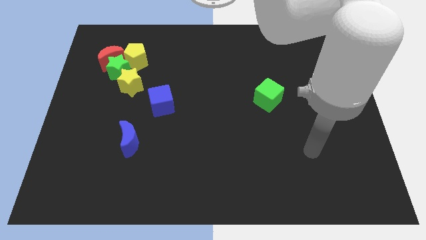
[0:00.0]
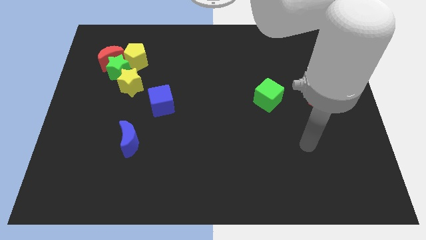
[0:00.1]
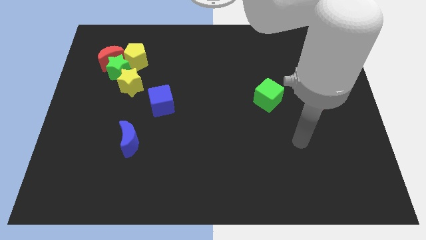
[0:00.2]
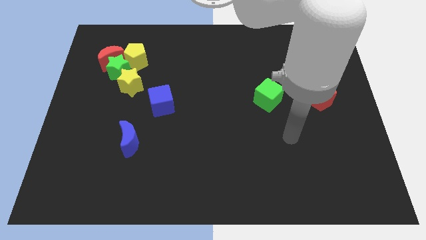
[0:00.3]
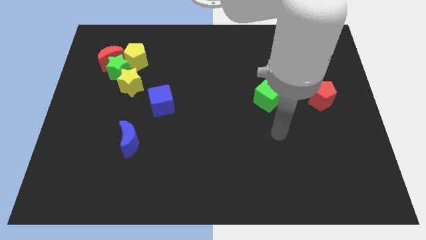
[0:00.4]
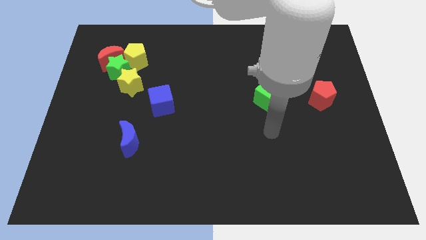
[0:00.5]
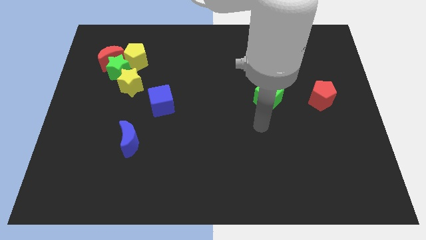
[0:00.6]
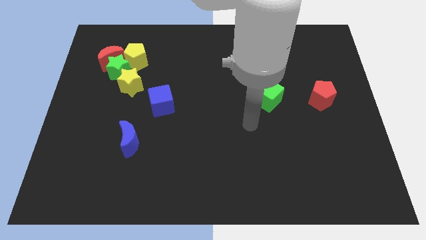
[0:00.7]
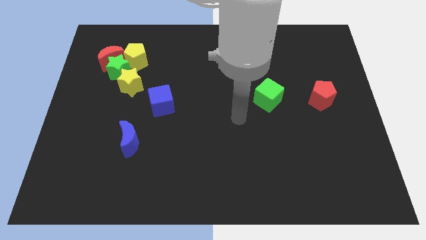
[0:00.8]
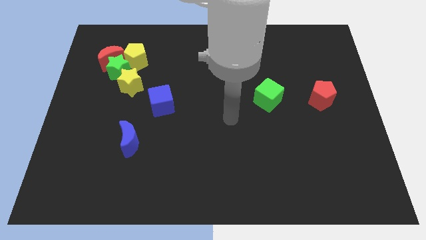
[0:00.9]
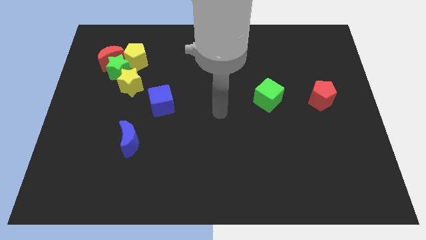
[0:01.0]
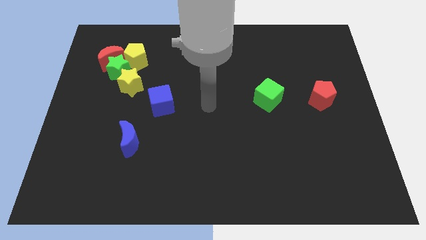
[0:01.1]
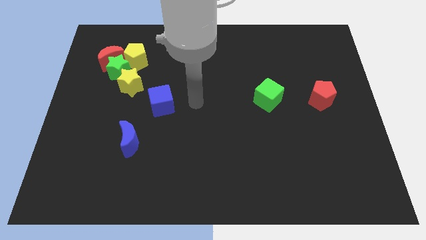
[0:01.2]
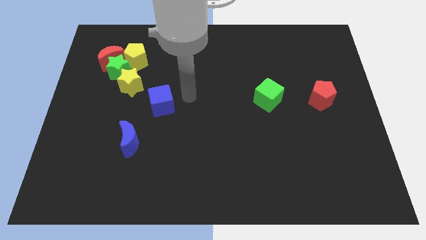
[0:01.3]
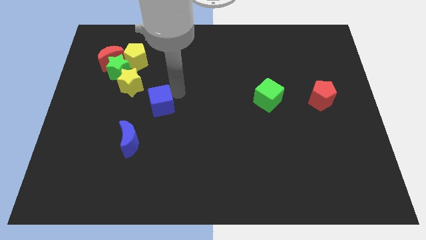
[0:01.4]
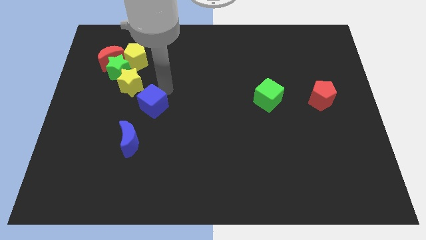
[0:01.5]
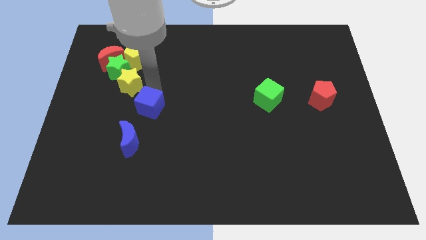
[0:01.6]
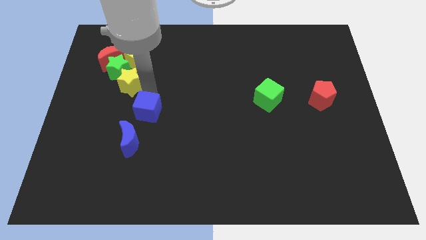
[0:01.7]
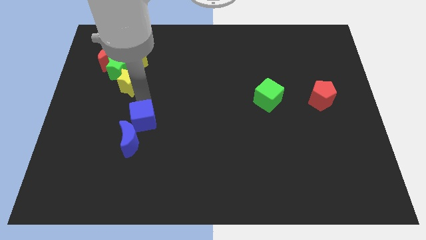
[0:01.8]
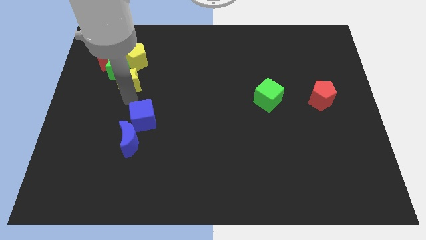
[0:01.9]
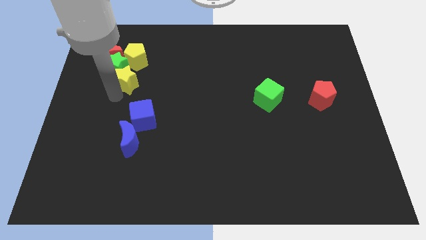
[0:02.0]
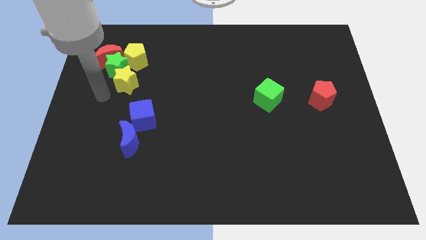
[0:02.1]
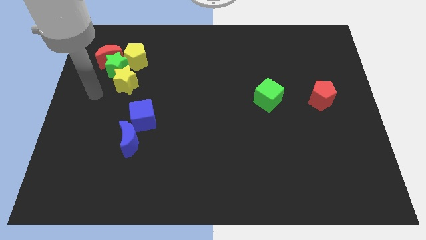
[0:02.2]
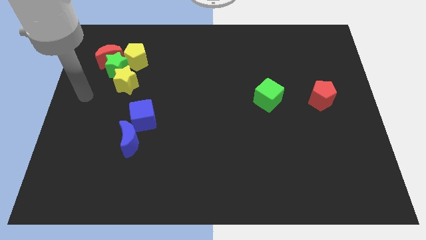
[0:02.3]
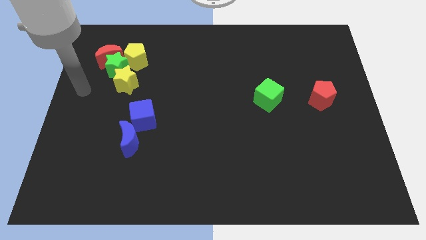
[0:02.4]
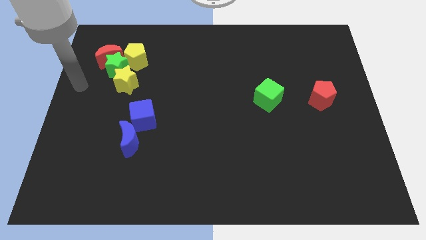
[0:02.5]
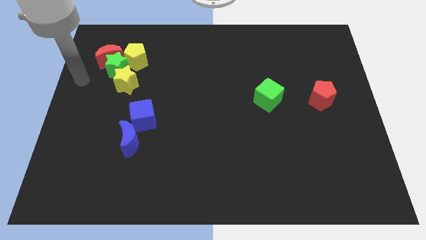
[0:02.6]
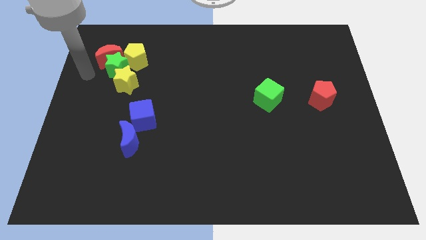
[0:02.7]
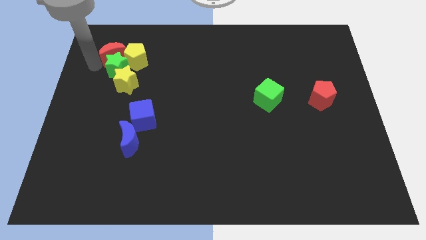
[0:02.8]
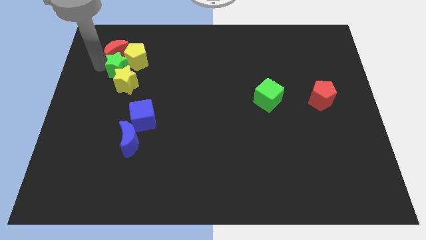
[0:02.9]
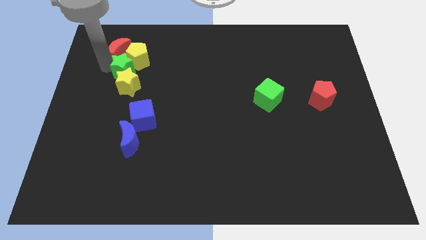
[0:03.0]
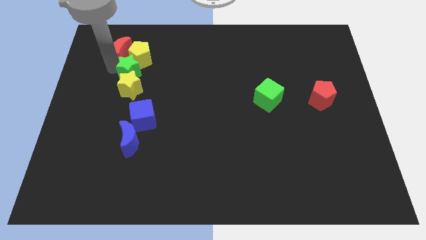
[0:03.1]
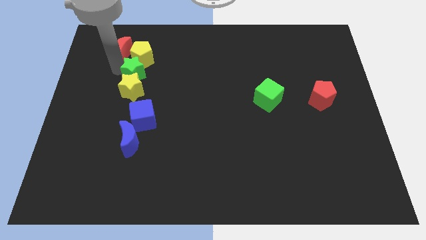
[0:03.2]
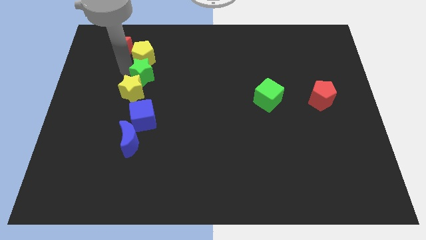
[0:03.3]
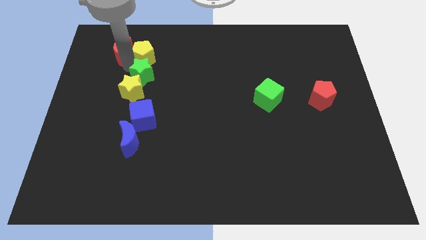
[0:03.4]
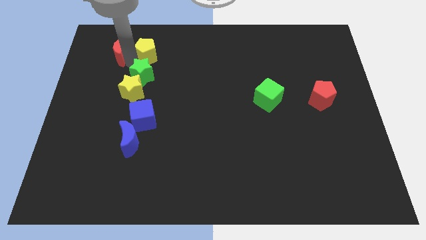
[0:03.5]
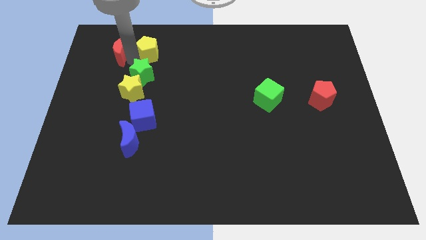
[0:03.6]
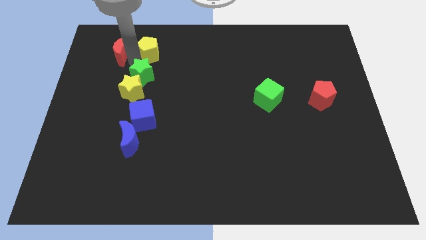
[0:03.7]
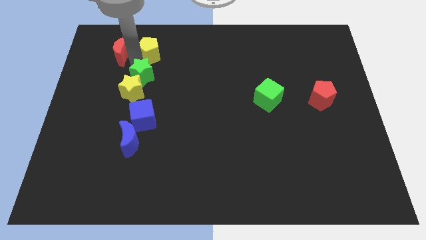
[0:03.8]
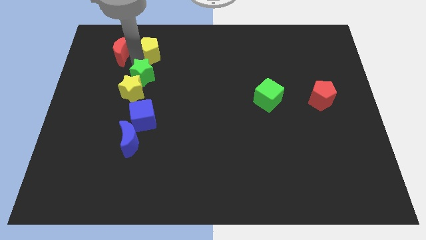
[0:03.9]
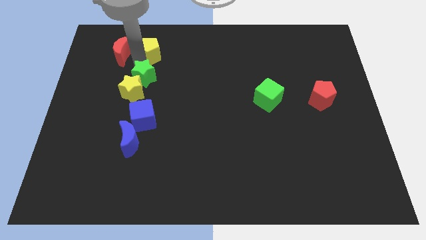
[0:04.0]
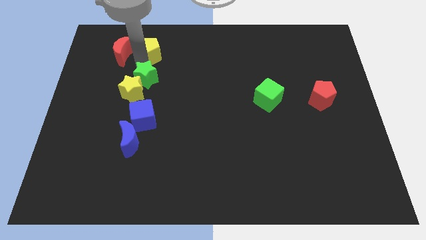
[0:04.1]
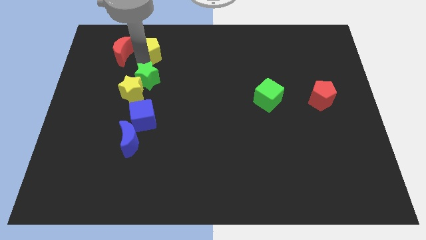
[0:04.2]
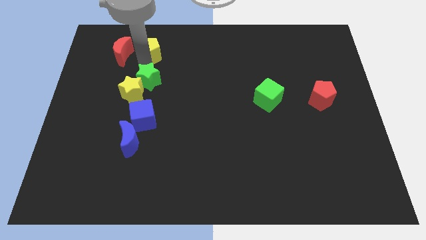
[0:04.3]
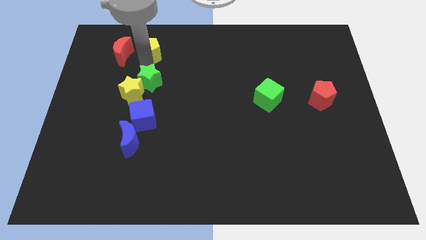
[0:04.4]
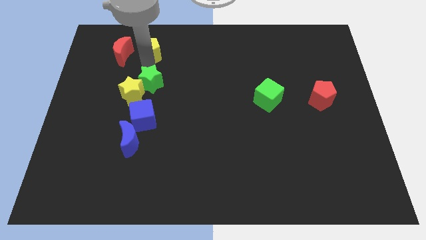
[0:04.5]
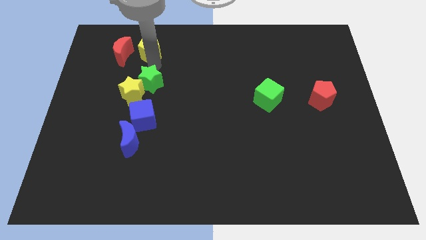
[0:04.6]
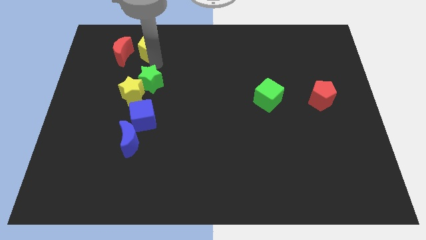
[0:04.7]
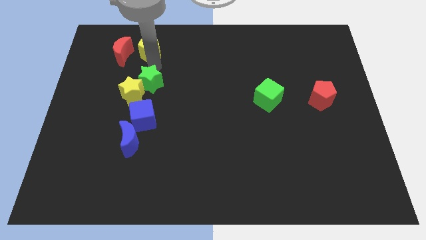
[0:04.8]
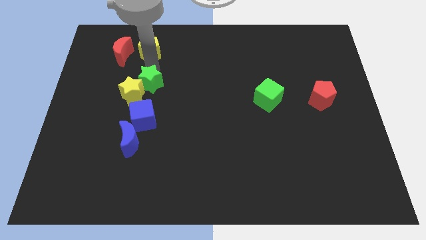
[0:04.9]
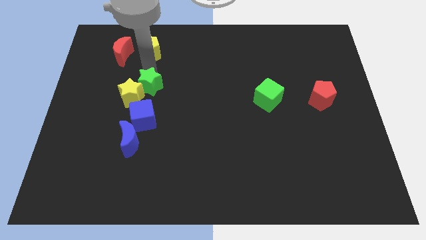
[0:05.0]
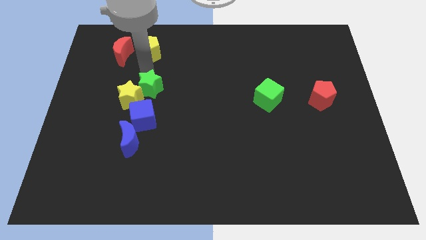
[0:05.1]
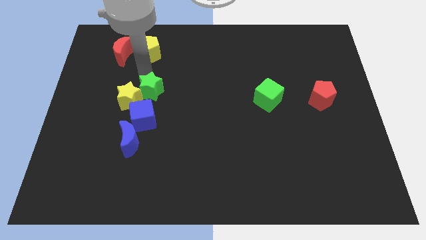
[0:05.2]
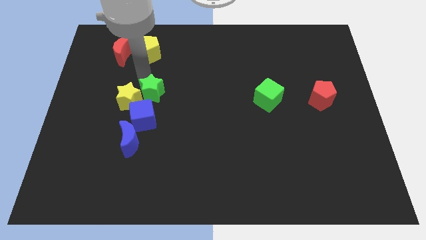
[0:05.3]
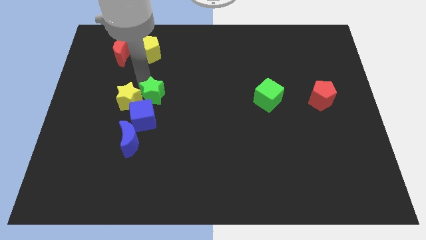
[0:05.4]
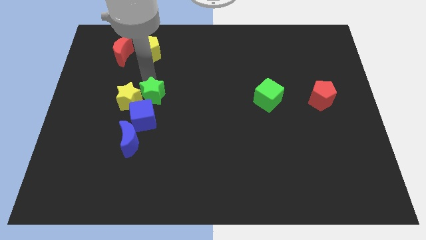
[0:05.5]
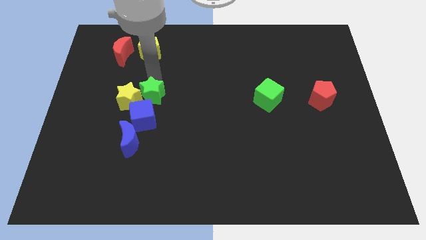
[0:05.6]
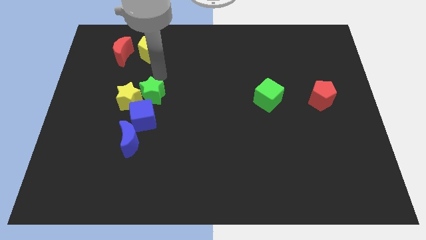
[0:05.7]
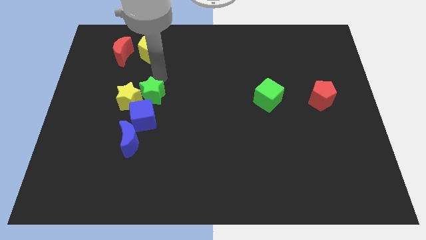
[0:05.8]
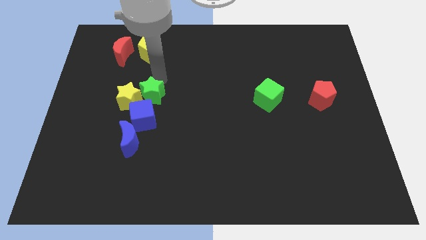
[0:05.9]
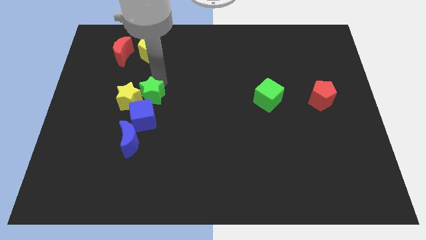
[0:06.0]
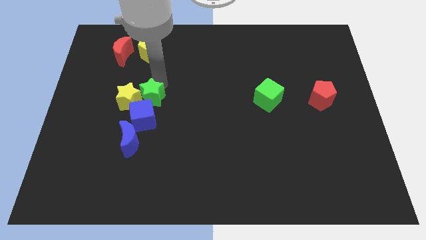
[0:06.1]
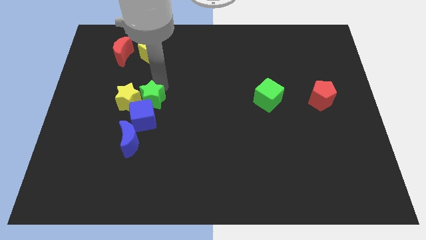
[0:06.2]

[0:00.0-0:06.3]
put the green star towards the blue cube

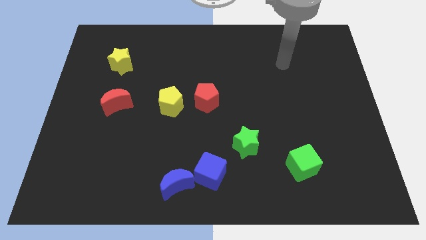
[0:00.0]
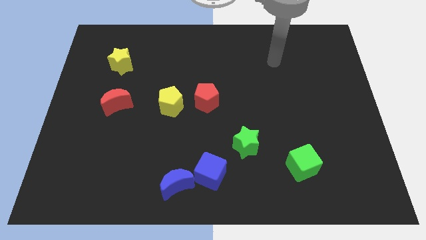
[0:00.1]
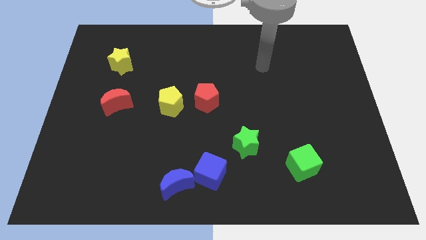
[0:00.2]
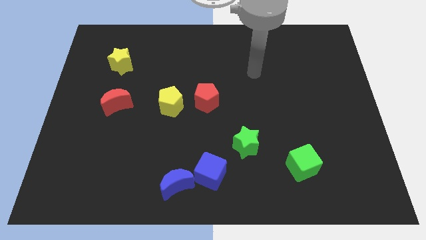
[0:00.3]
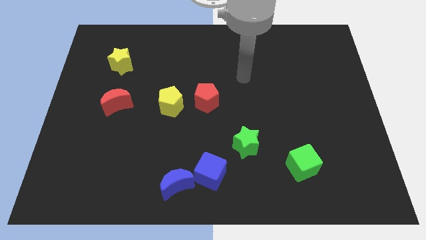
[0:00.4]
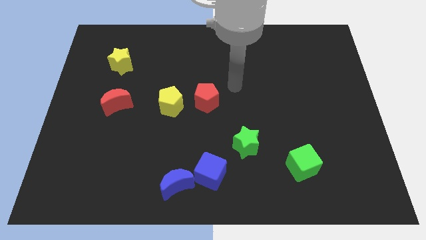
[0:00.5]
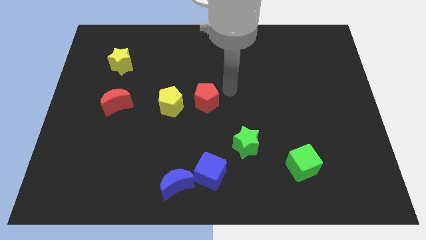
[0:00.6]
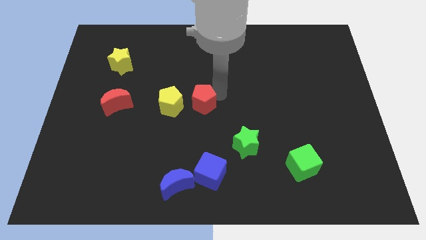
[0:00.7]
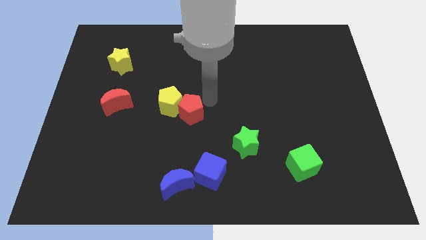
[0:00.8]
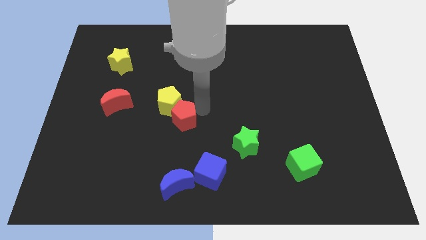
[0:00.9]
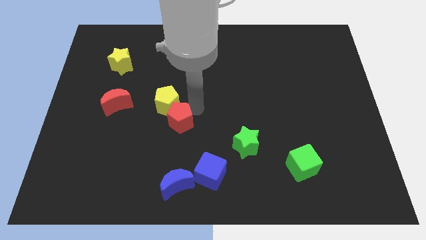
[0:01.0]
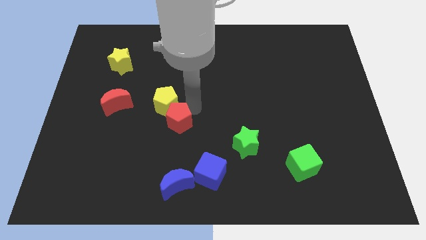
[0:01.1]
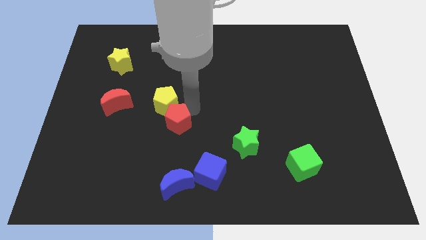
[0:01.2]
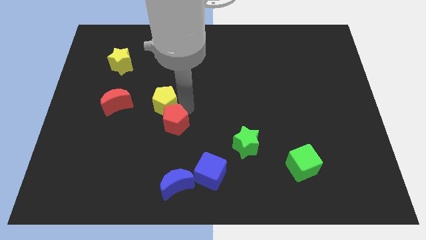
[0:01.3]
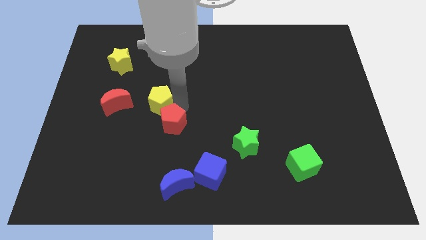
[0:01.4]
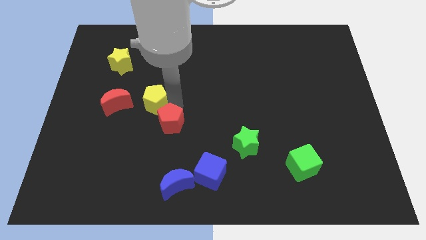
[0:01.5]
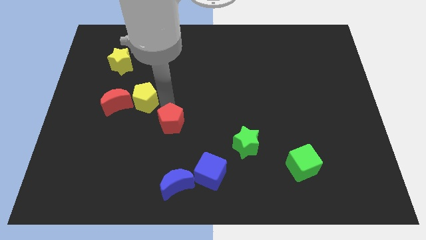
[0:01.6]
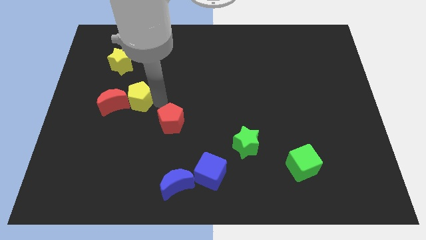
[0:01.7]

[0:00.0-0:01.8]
put the yellow pentagon towards the red moon
